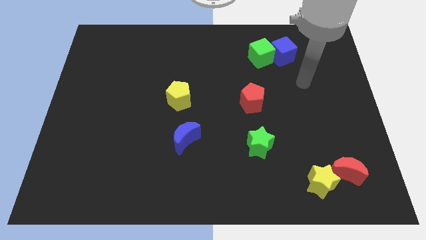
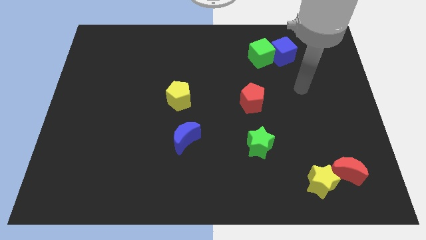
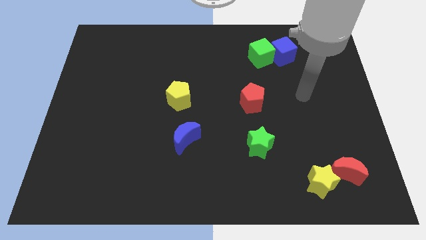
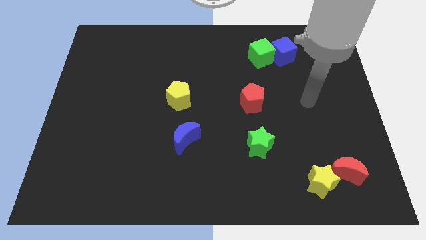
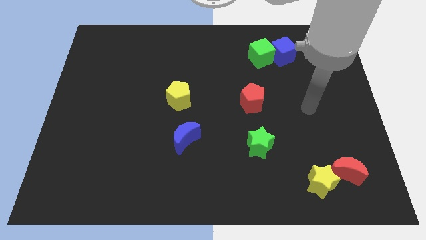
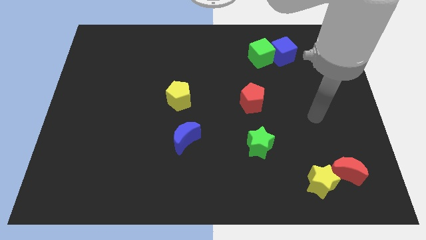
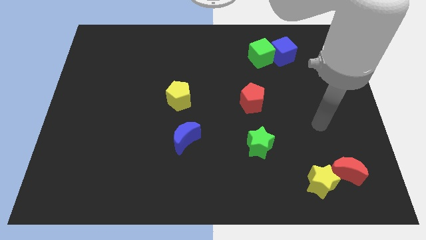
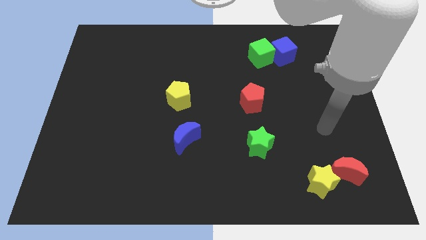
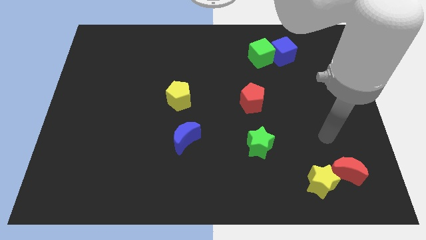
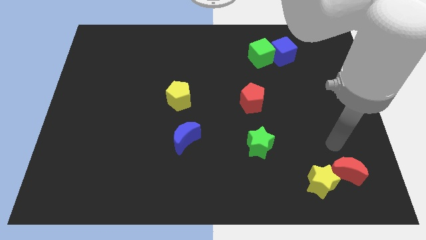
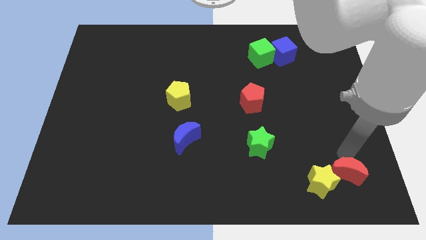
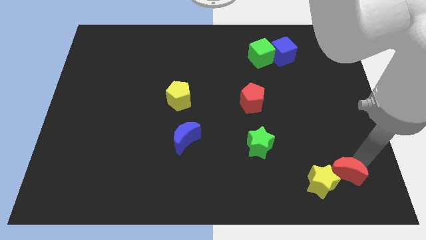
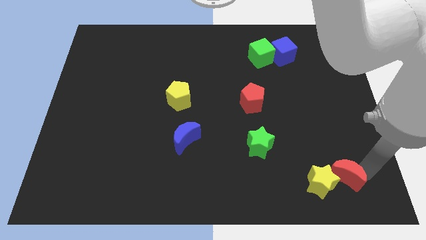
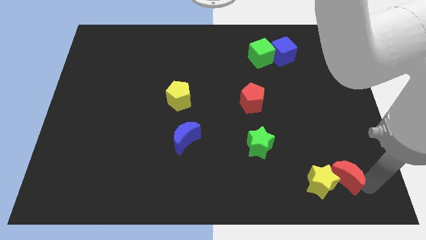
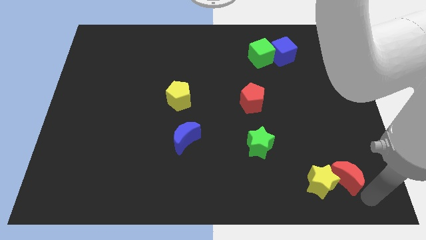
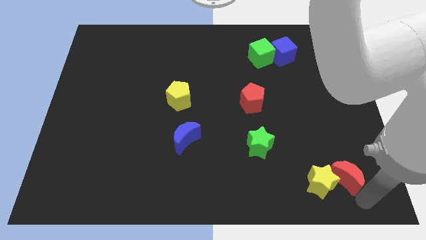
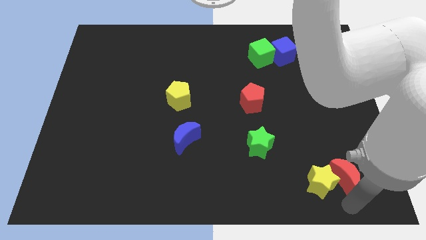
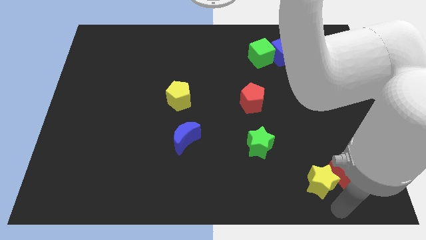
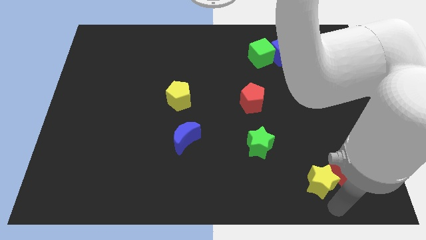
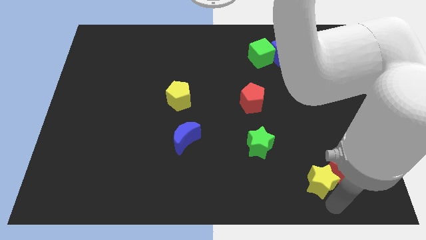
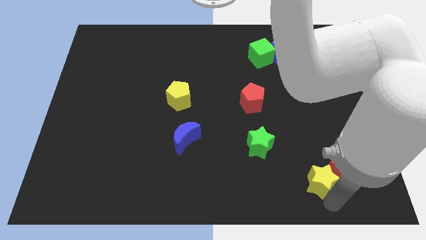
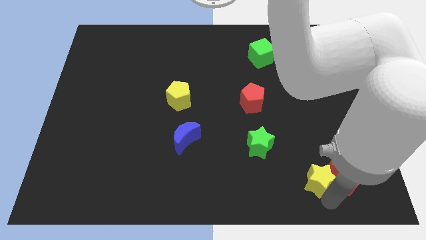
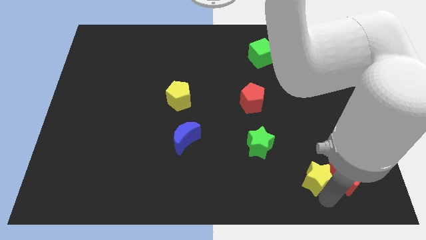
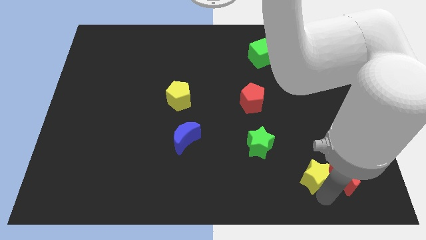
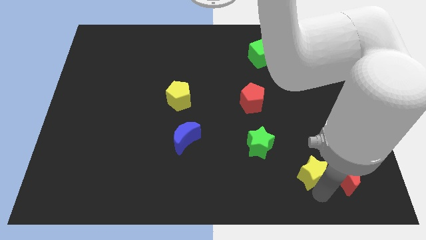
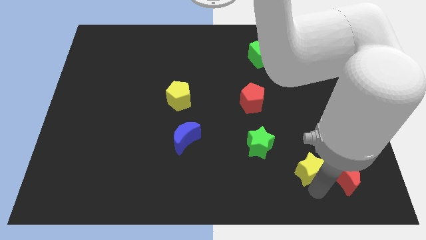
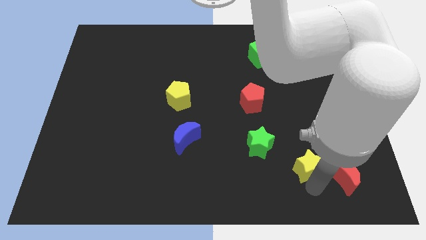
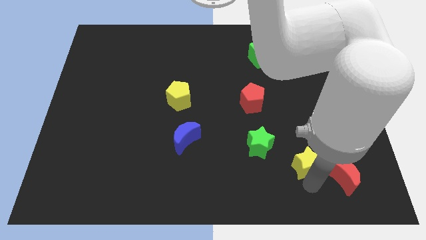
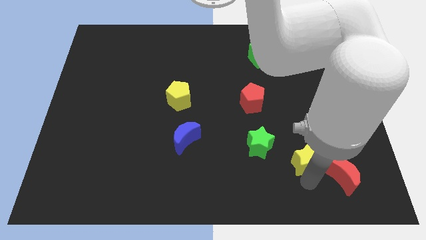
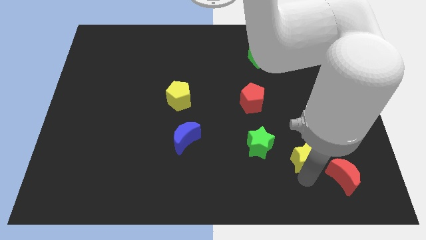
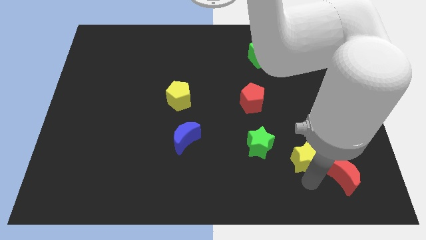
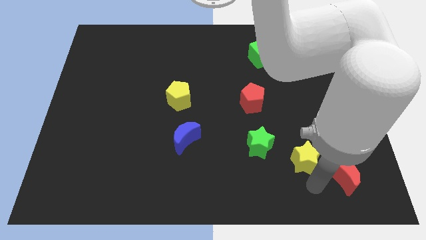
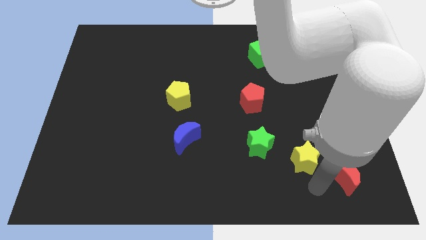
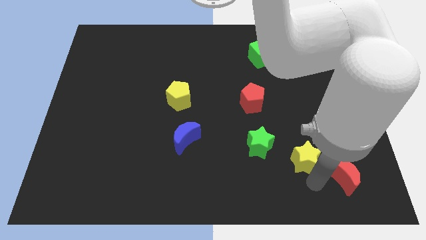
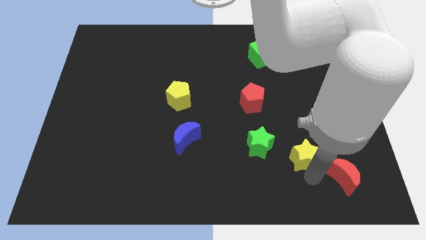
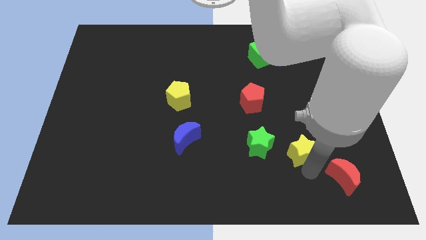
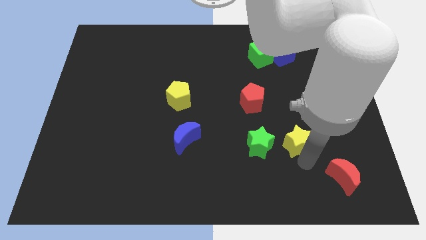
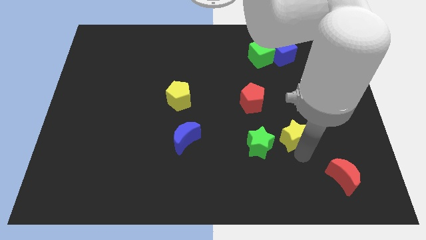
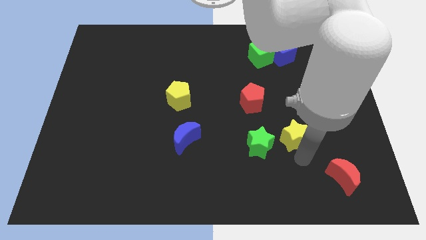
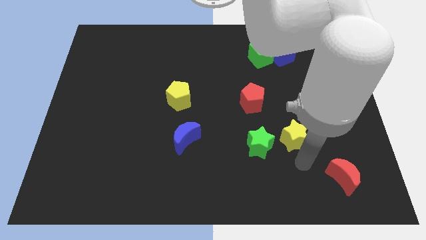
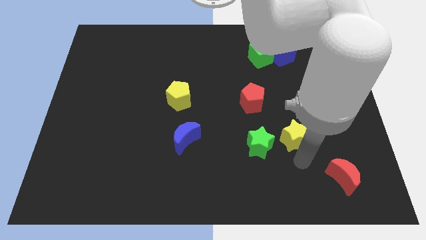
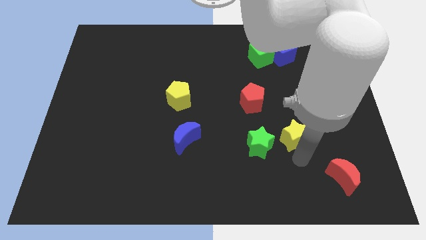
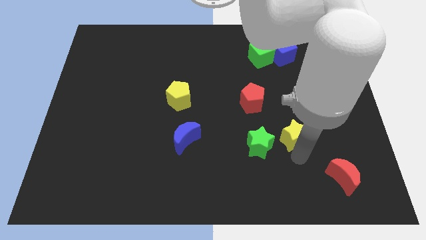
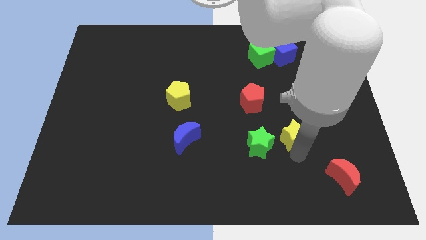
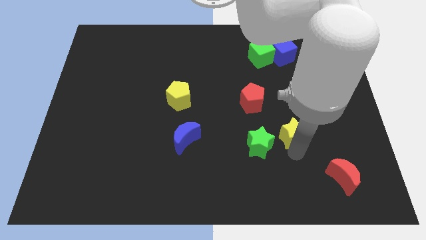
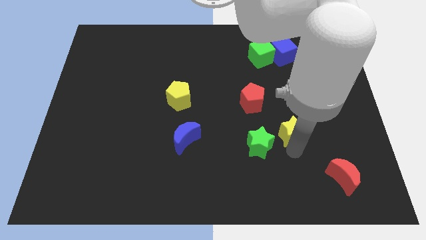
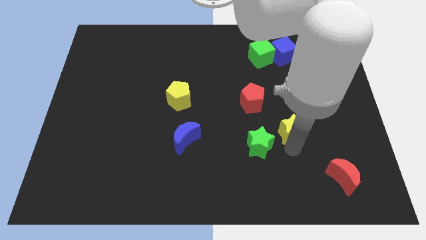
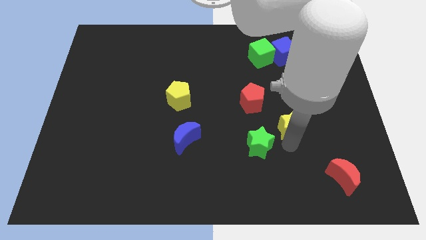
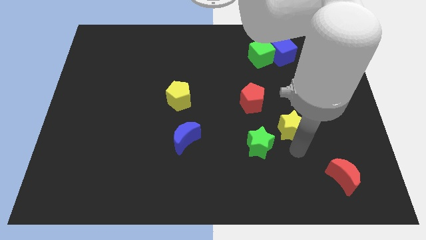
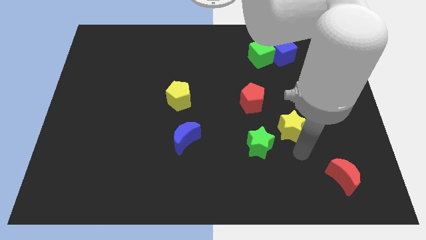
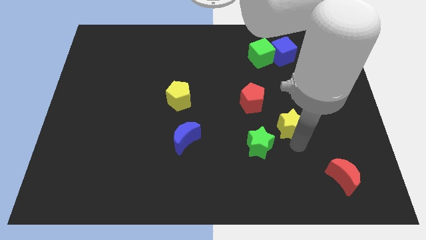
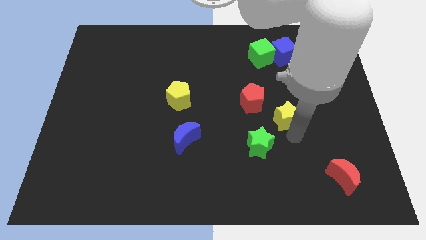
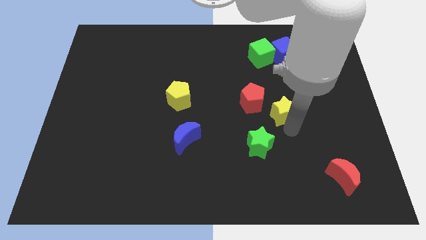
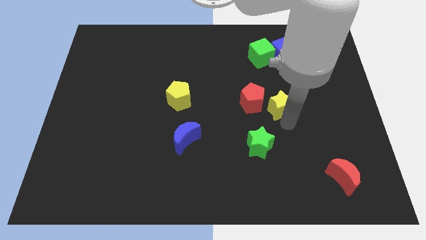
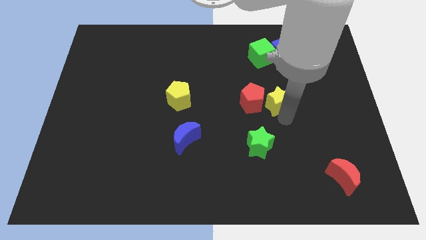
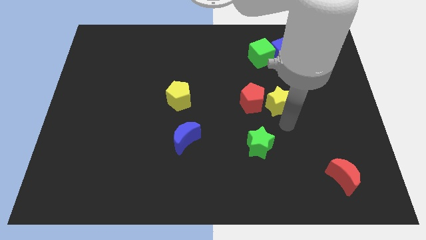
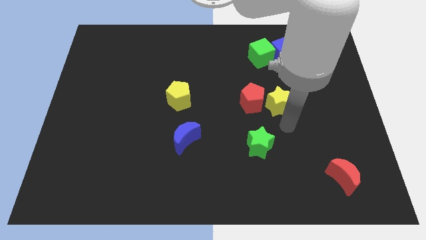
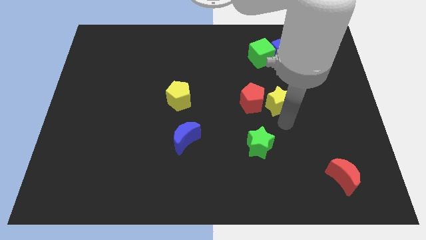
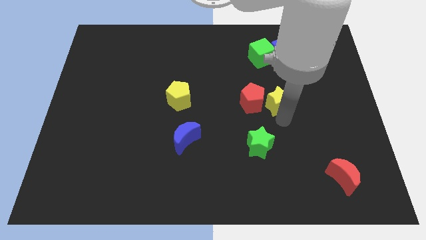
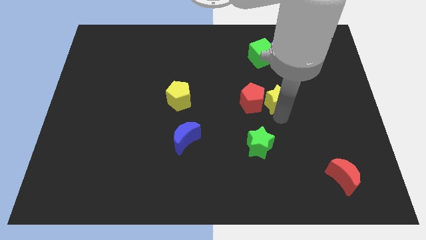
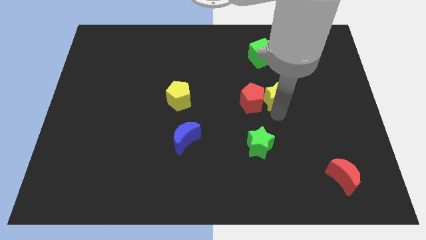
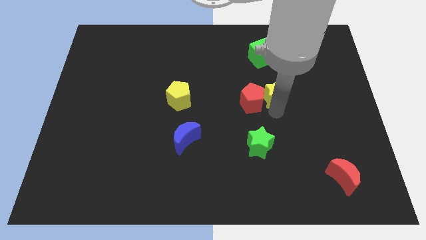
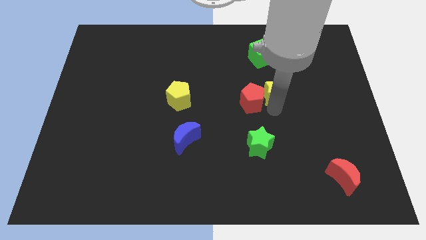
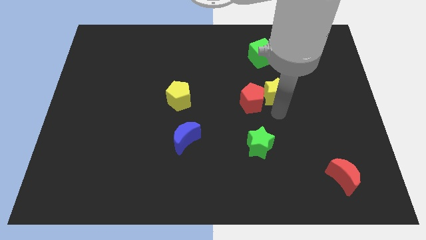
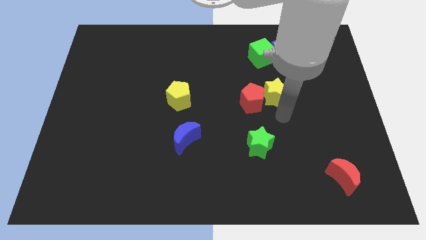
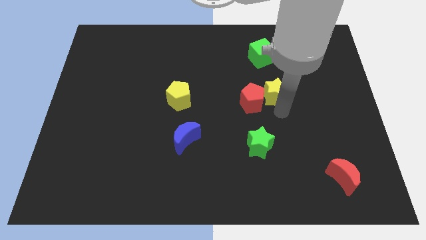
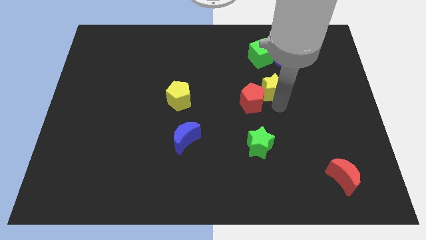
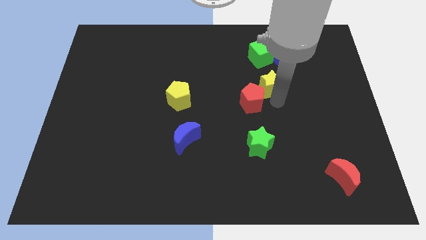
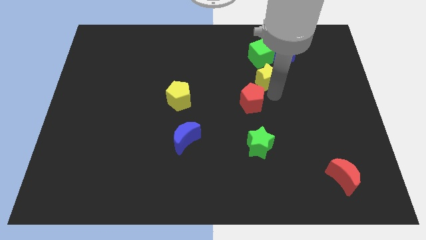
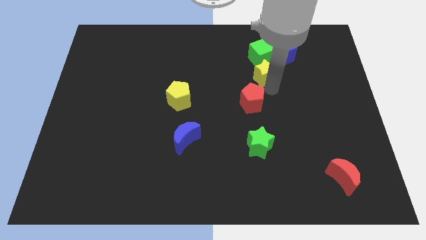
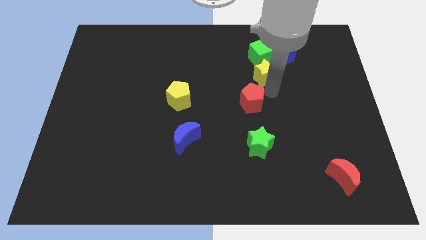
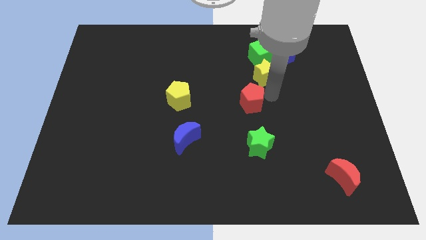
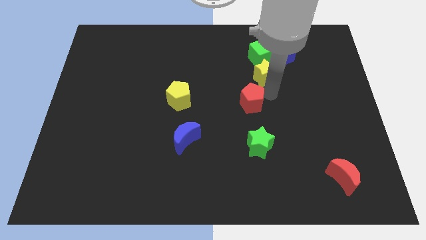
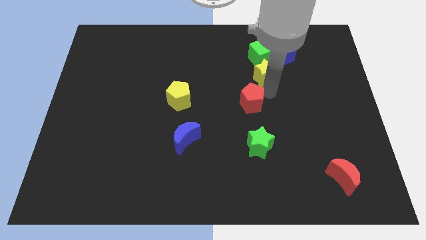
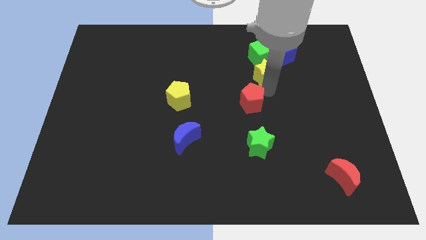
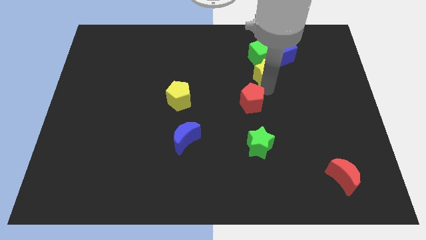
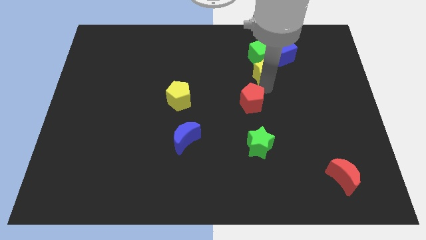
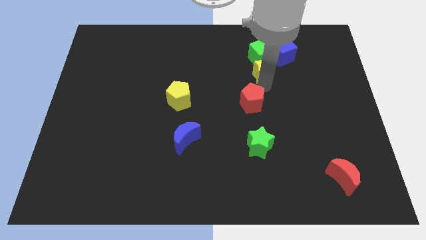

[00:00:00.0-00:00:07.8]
push the yellow star close to the green cube
